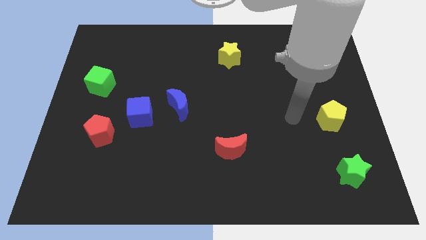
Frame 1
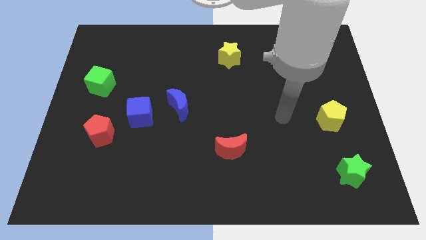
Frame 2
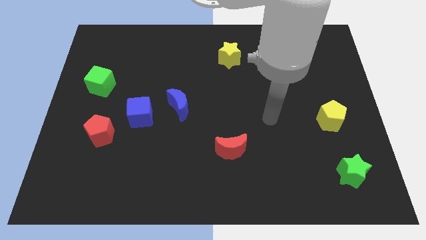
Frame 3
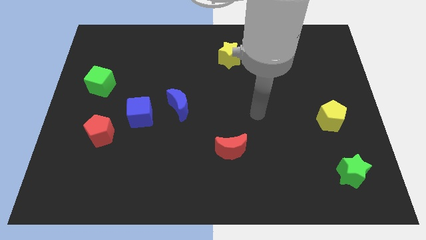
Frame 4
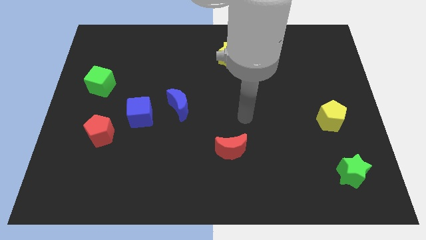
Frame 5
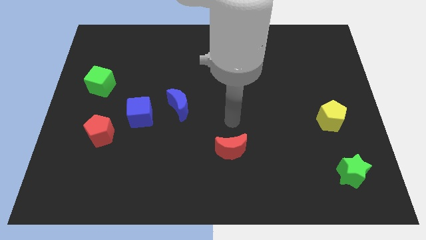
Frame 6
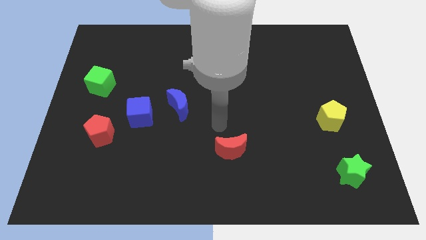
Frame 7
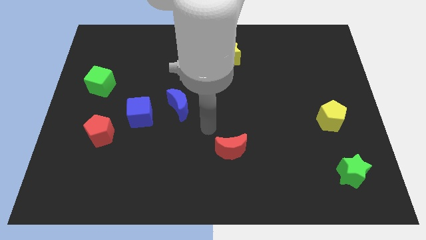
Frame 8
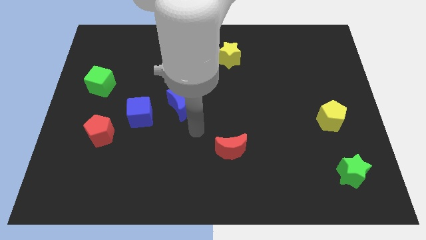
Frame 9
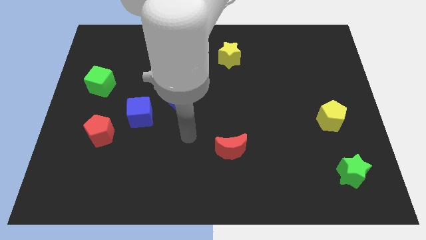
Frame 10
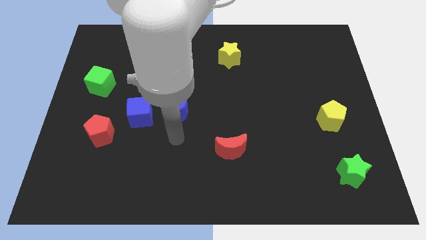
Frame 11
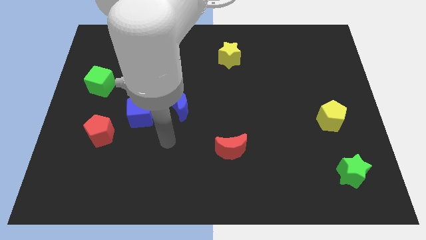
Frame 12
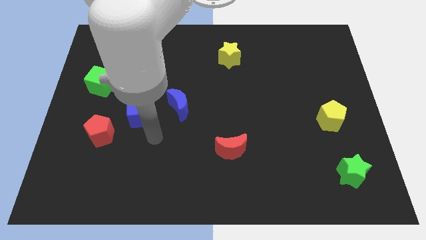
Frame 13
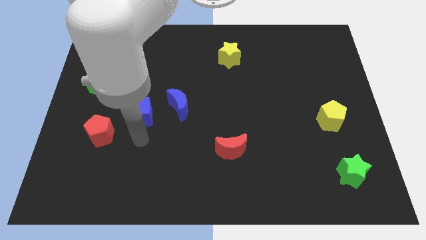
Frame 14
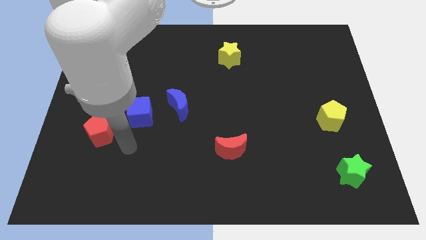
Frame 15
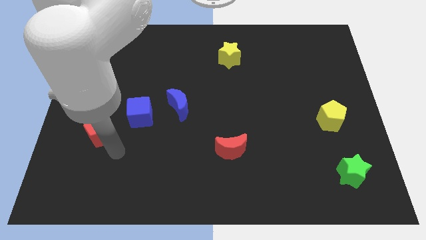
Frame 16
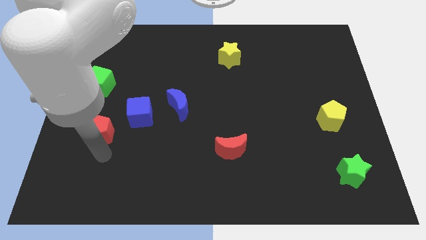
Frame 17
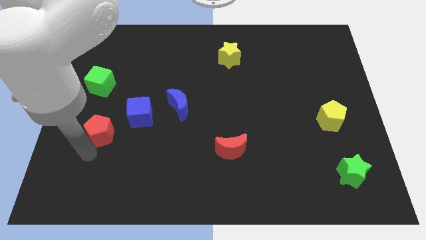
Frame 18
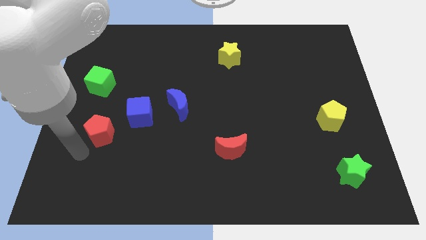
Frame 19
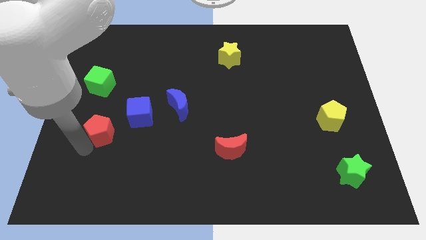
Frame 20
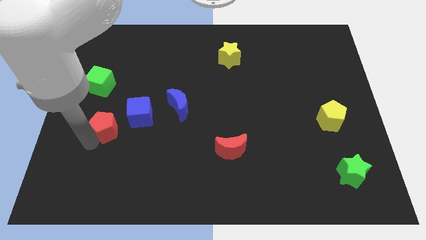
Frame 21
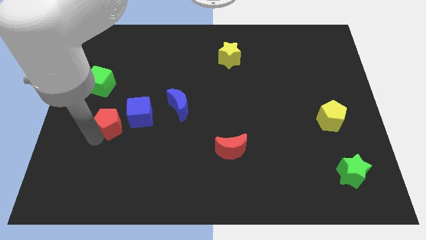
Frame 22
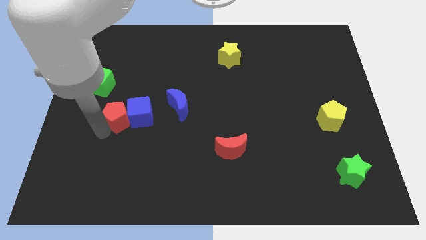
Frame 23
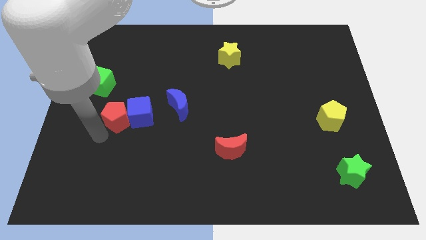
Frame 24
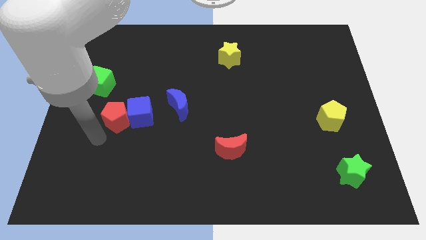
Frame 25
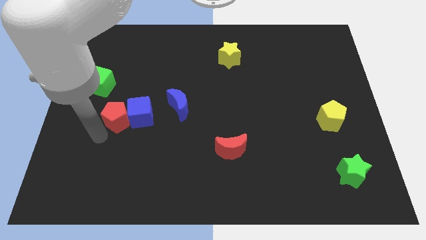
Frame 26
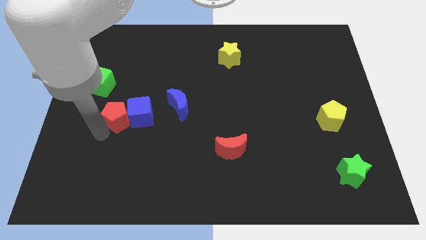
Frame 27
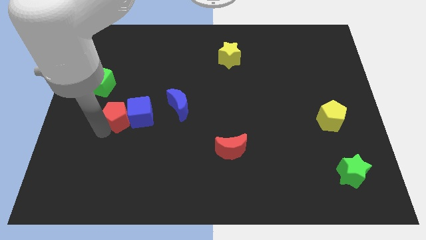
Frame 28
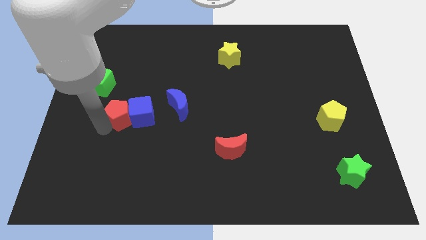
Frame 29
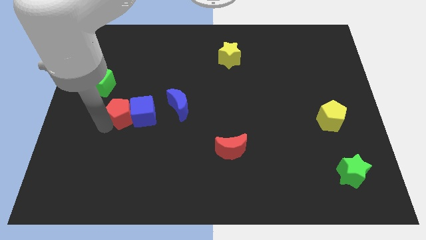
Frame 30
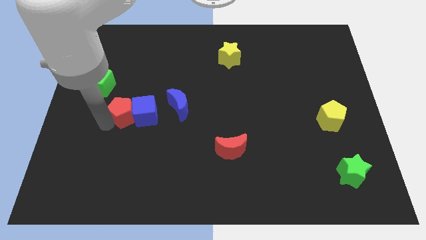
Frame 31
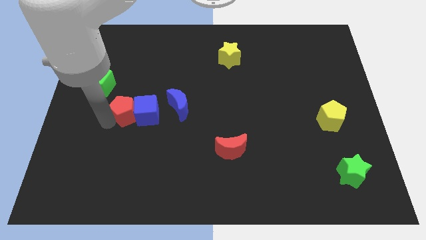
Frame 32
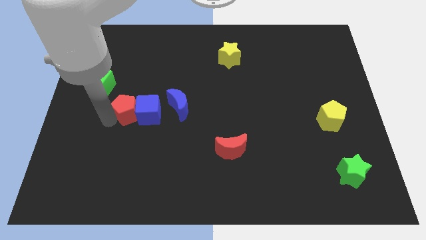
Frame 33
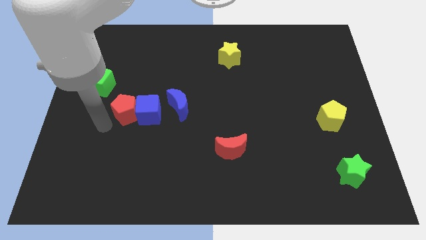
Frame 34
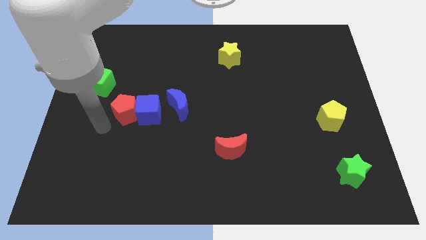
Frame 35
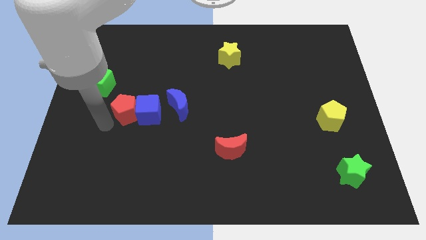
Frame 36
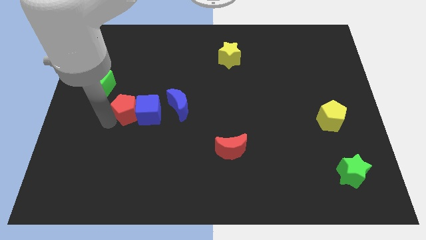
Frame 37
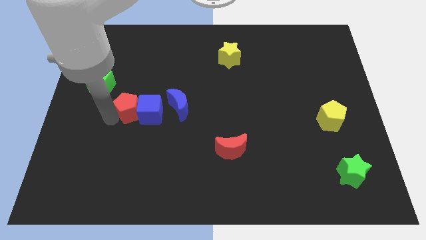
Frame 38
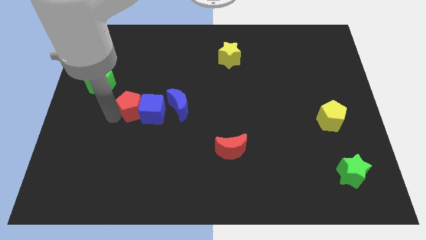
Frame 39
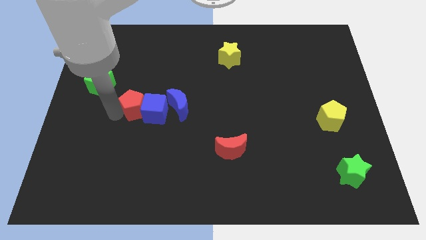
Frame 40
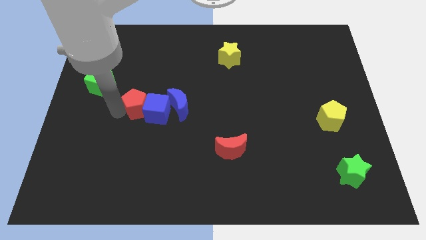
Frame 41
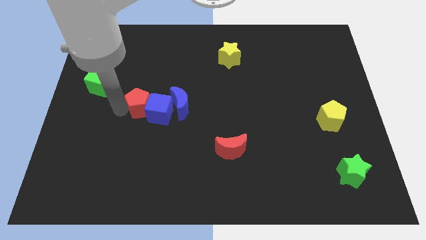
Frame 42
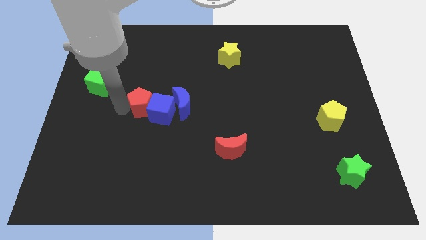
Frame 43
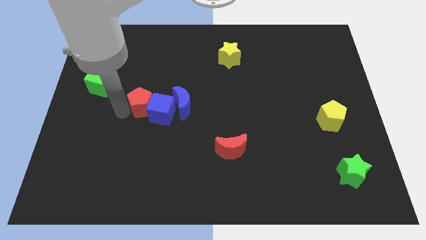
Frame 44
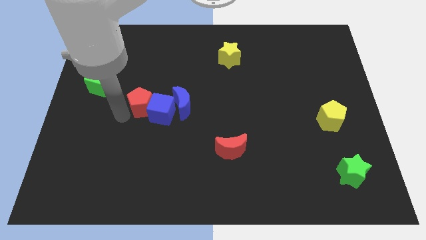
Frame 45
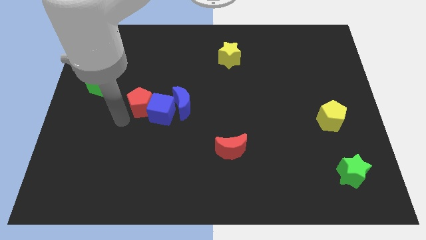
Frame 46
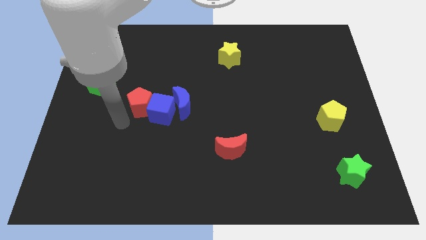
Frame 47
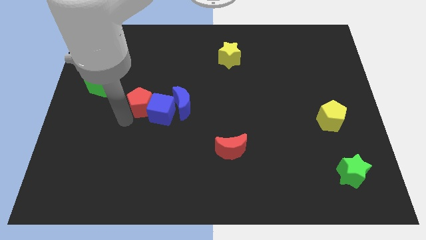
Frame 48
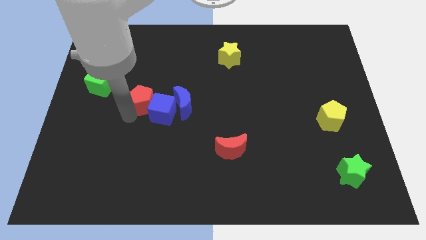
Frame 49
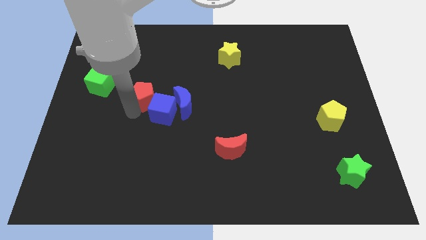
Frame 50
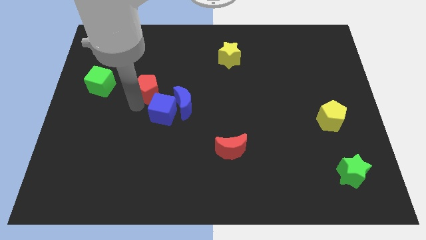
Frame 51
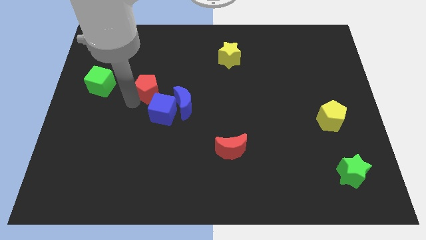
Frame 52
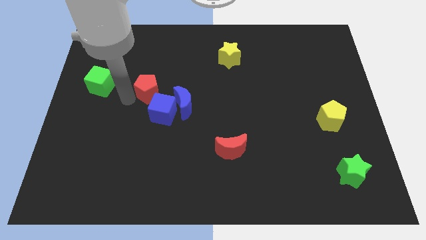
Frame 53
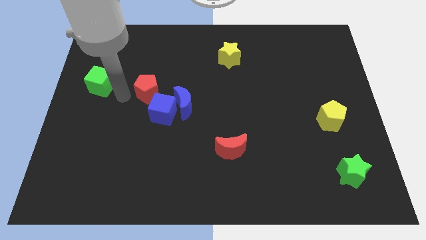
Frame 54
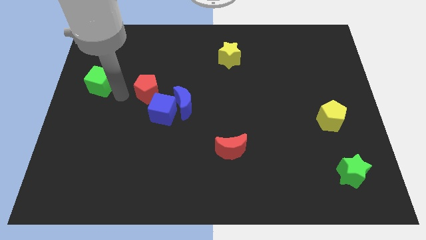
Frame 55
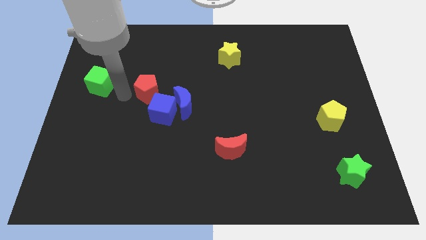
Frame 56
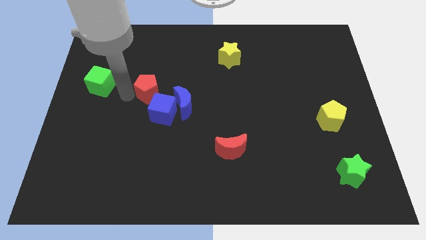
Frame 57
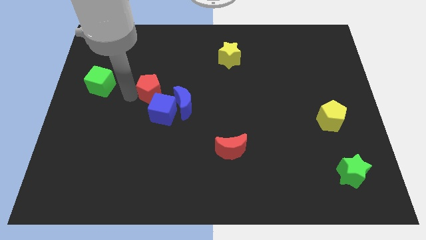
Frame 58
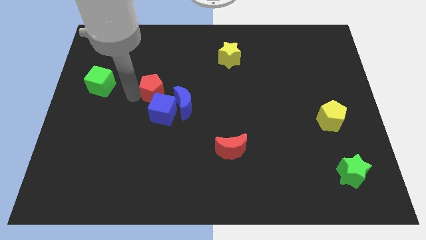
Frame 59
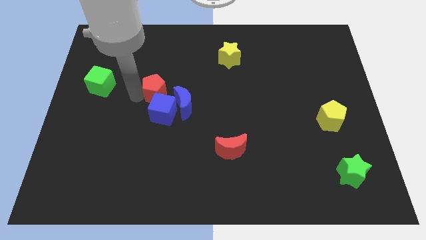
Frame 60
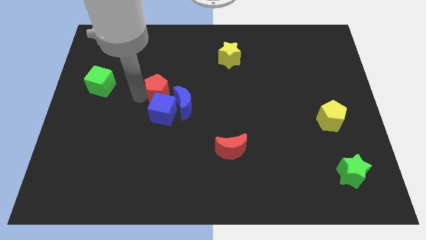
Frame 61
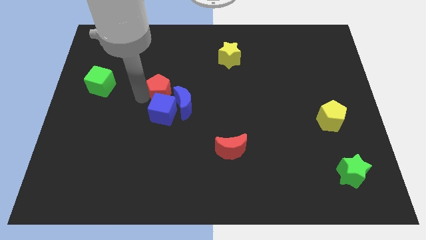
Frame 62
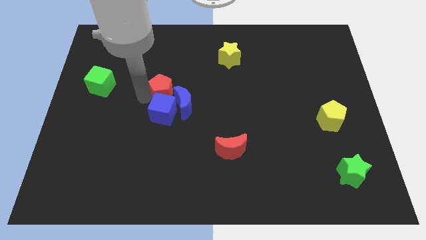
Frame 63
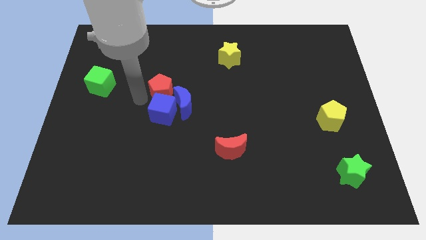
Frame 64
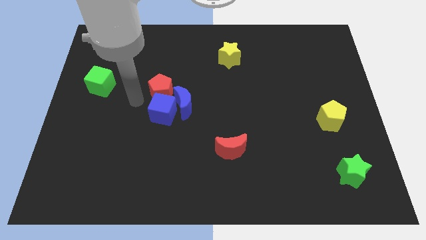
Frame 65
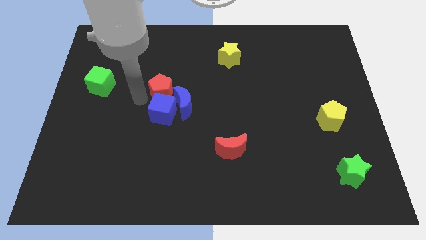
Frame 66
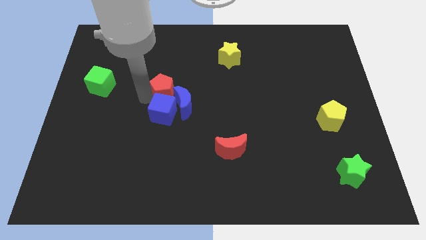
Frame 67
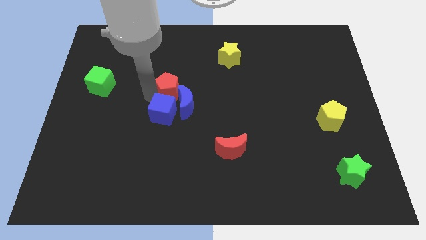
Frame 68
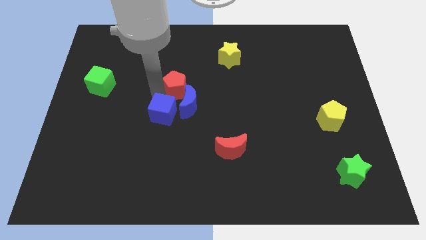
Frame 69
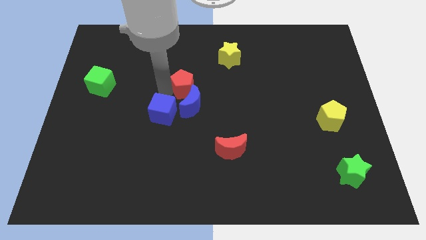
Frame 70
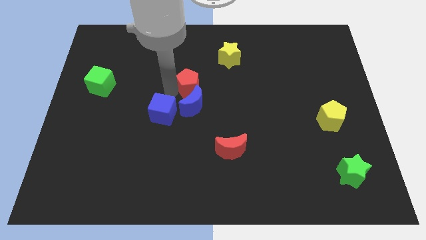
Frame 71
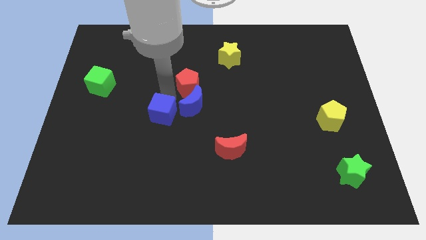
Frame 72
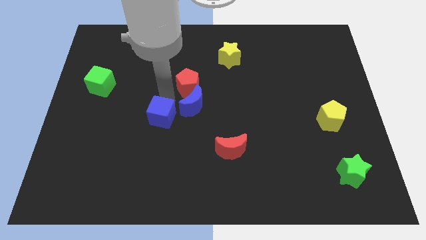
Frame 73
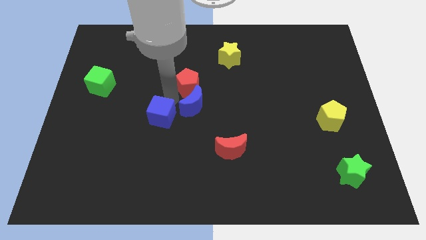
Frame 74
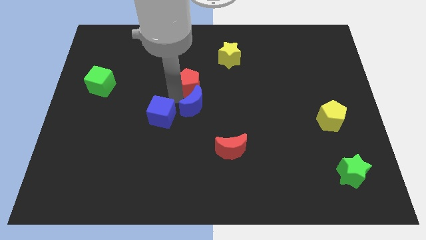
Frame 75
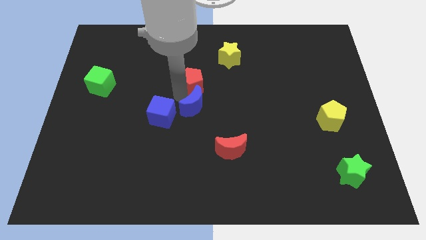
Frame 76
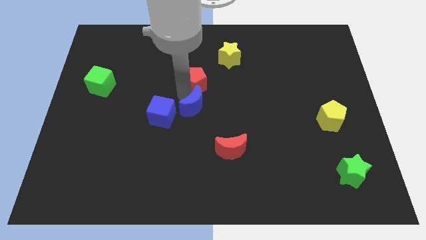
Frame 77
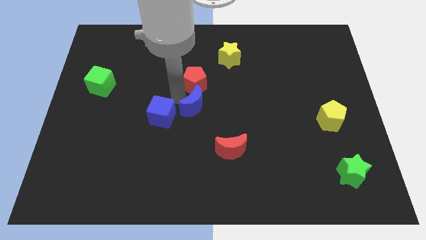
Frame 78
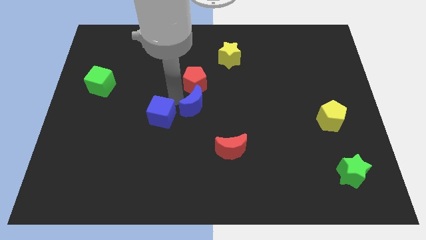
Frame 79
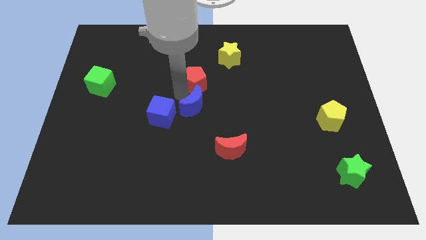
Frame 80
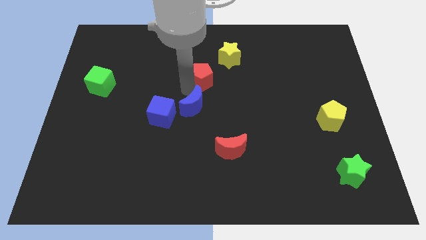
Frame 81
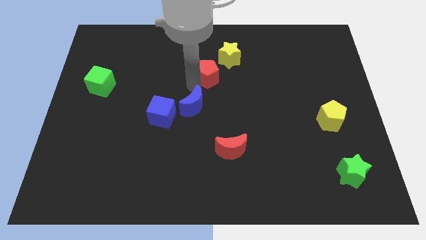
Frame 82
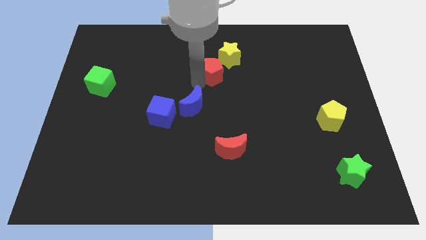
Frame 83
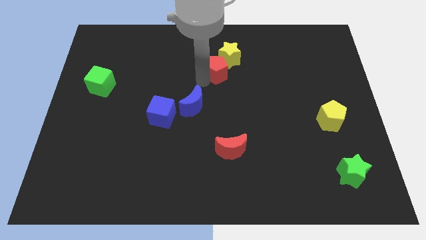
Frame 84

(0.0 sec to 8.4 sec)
push the red pentagon to the yellow star
